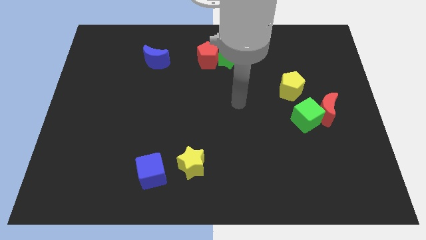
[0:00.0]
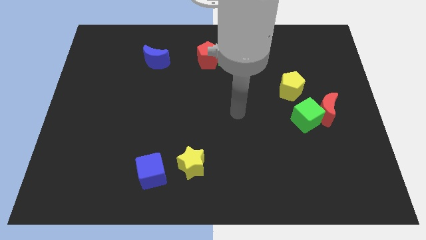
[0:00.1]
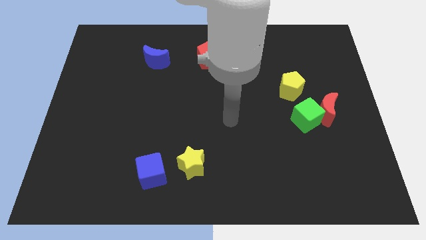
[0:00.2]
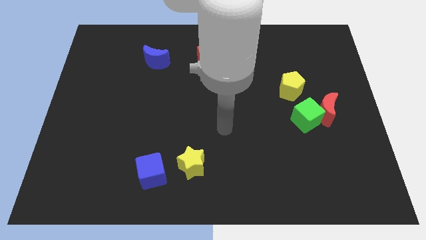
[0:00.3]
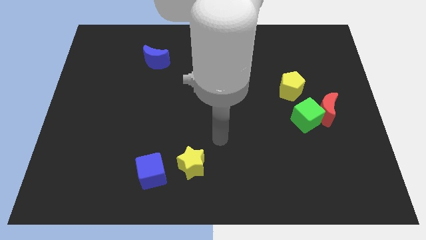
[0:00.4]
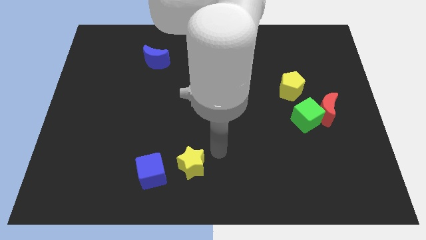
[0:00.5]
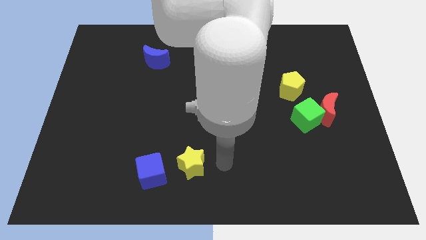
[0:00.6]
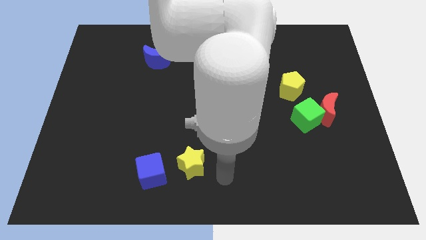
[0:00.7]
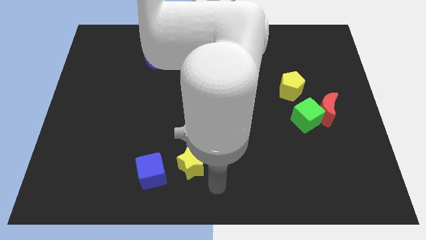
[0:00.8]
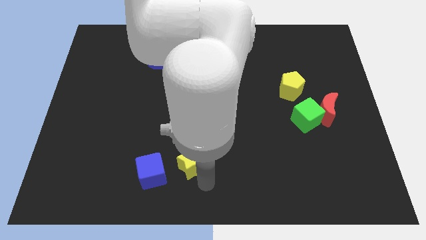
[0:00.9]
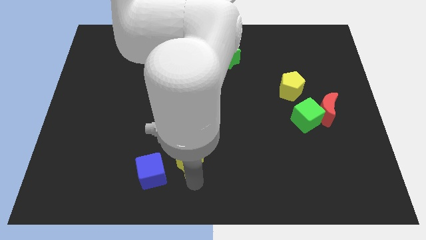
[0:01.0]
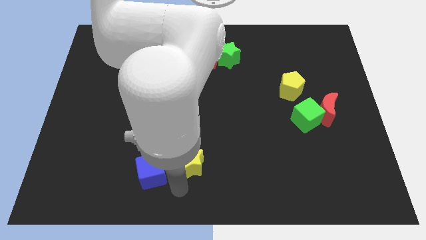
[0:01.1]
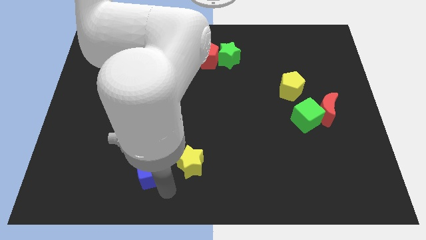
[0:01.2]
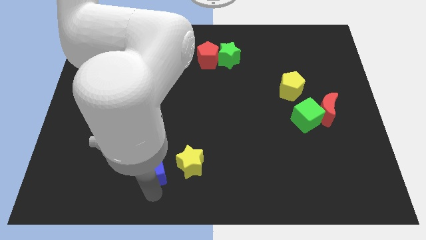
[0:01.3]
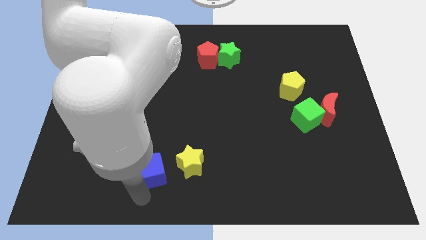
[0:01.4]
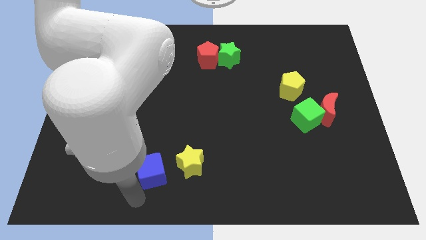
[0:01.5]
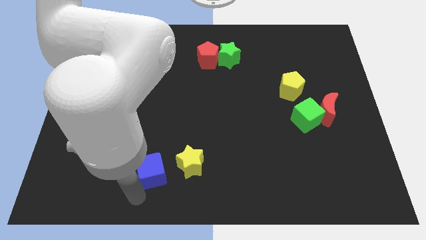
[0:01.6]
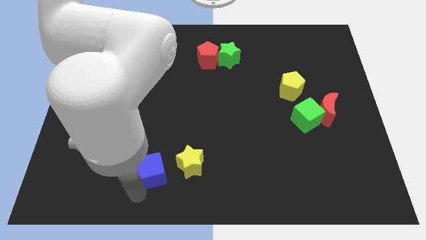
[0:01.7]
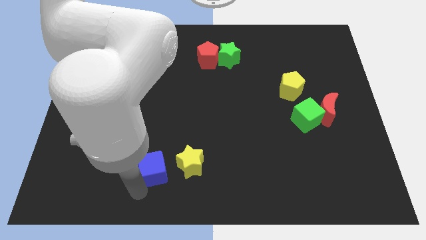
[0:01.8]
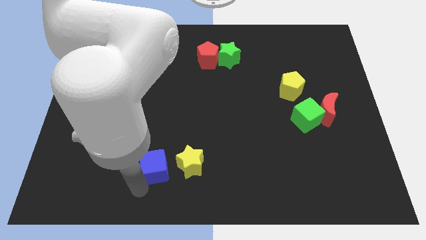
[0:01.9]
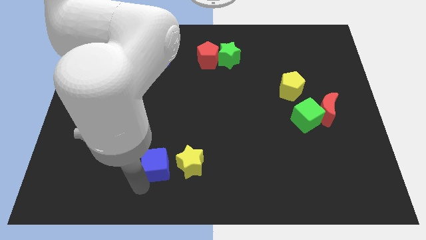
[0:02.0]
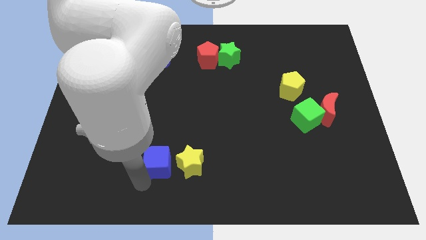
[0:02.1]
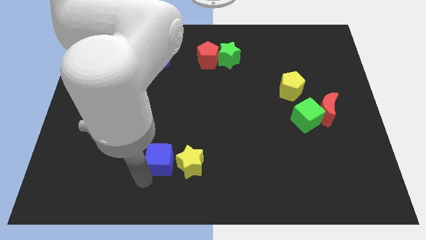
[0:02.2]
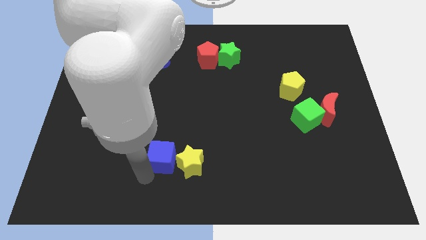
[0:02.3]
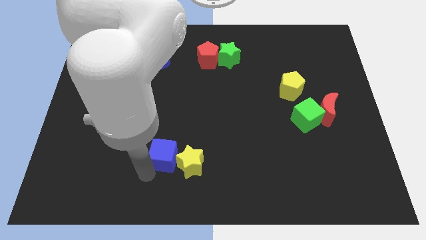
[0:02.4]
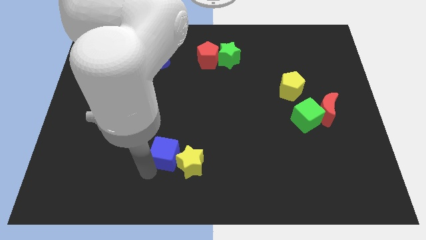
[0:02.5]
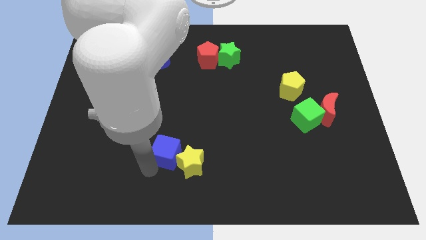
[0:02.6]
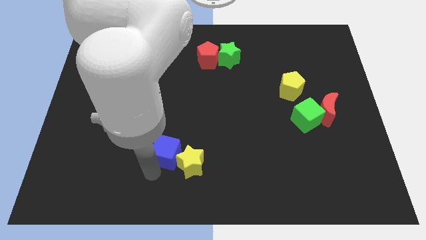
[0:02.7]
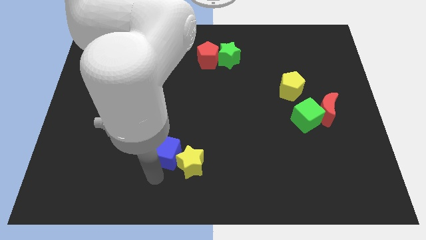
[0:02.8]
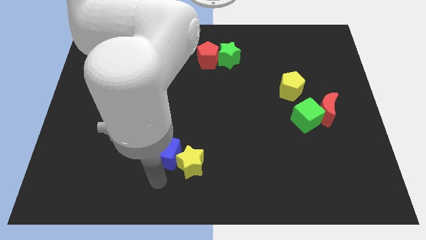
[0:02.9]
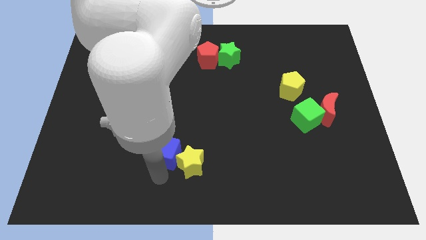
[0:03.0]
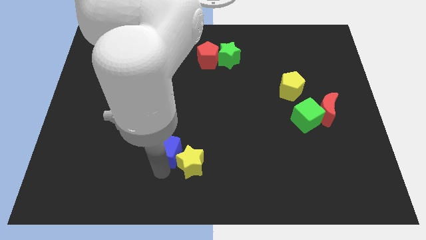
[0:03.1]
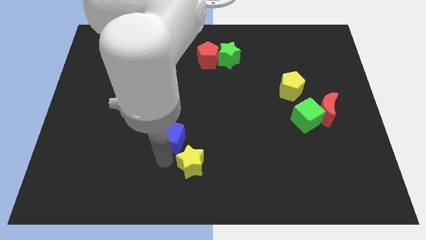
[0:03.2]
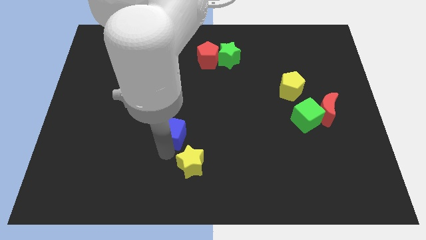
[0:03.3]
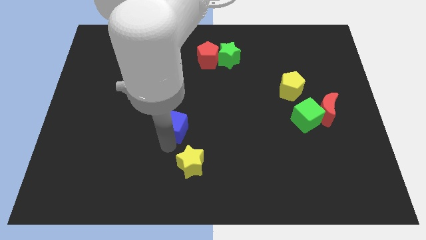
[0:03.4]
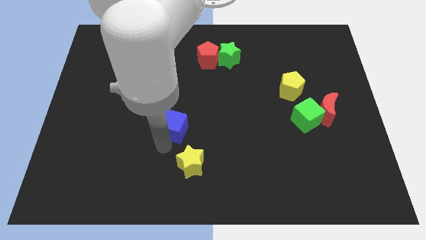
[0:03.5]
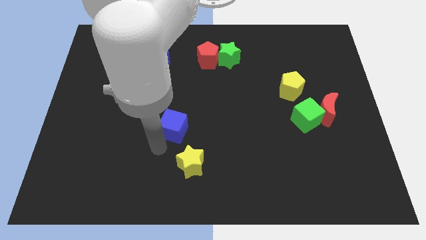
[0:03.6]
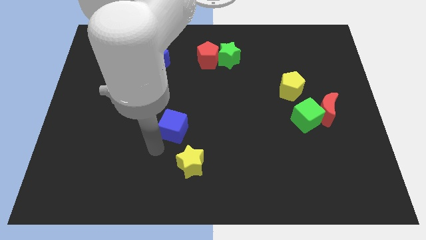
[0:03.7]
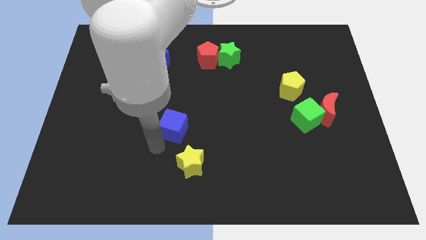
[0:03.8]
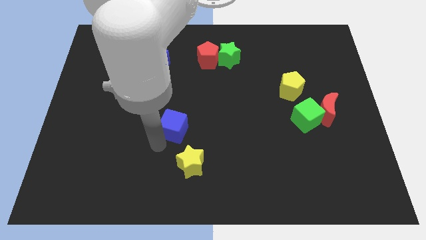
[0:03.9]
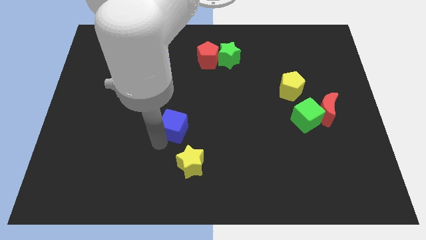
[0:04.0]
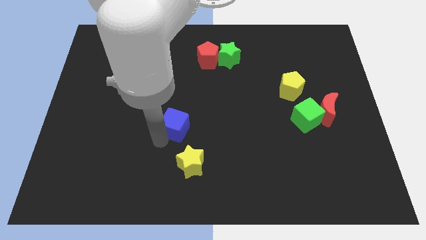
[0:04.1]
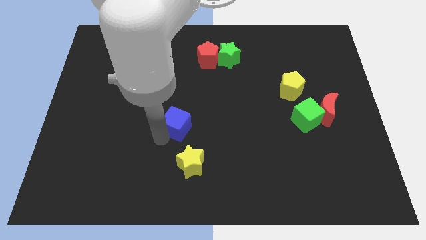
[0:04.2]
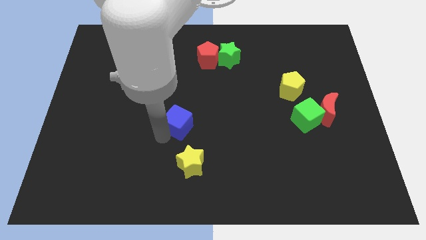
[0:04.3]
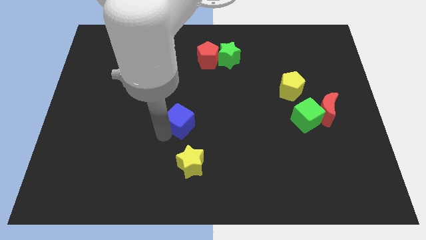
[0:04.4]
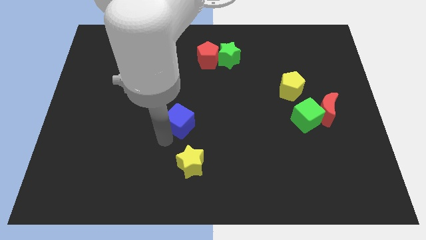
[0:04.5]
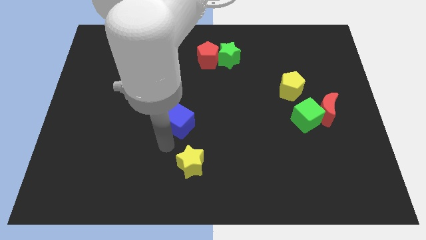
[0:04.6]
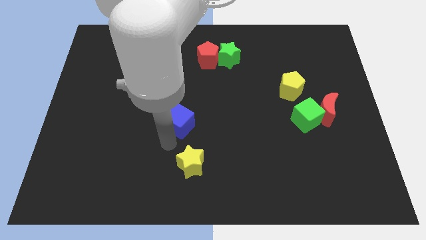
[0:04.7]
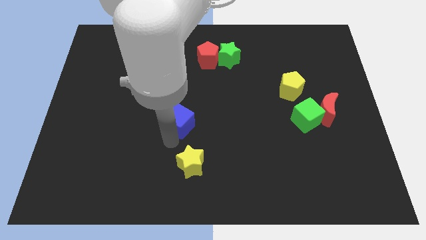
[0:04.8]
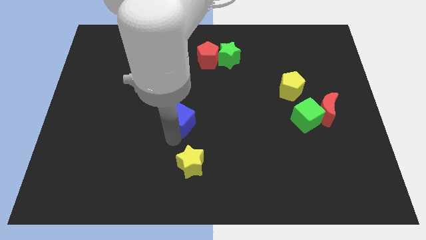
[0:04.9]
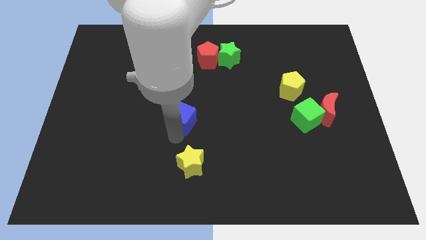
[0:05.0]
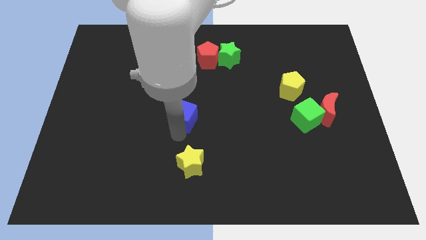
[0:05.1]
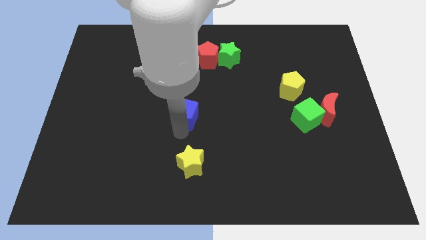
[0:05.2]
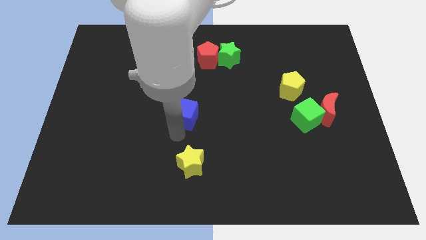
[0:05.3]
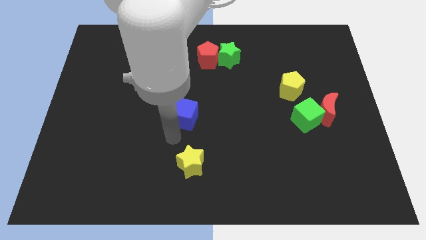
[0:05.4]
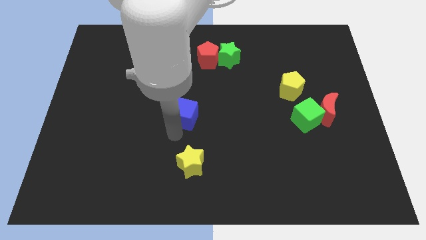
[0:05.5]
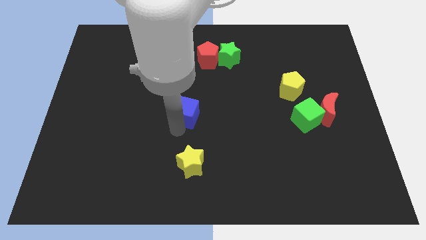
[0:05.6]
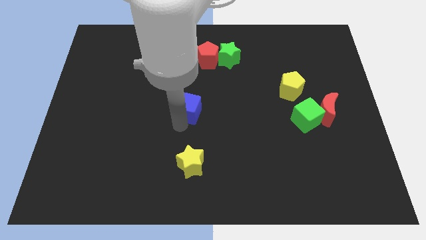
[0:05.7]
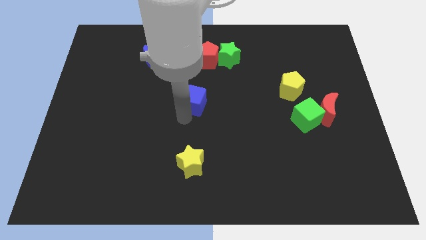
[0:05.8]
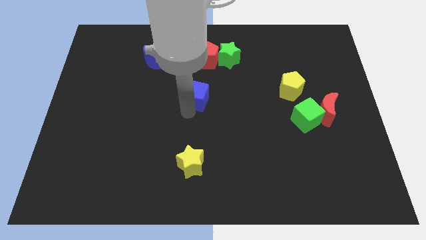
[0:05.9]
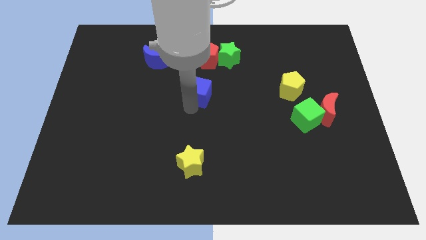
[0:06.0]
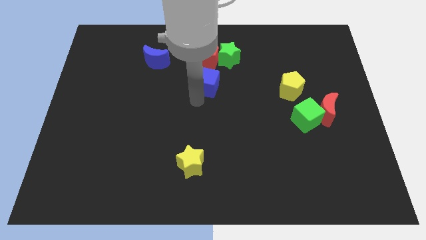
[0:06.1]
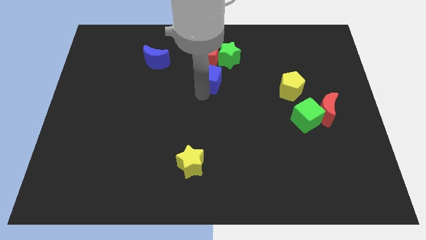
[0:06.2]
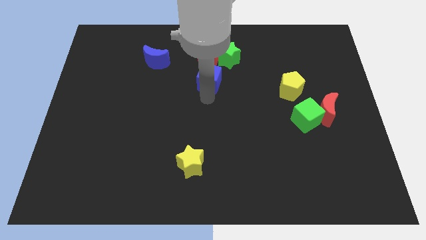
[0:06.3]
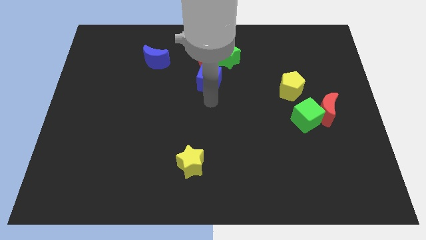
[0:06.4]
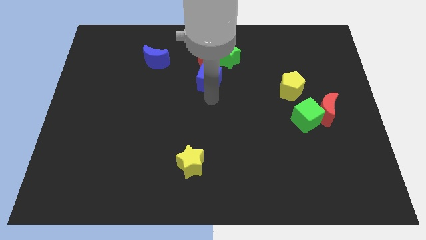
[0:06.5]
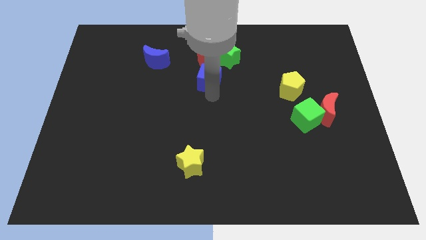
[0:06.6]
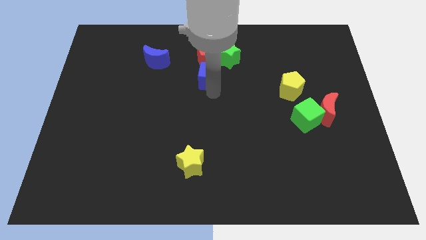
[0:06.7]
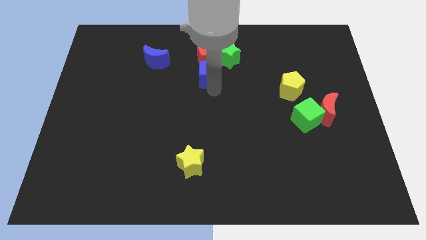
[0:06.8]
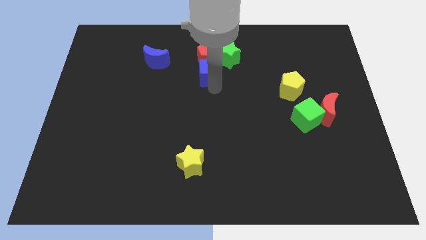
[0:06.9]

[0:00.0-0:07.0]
push the blue cube to the red pentagon
